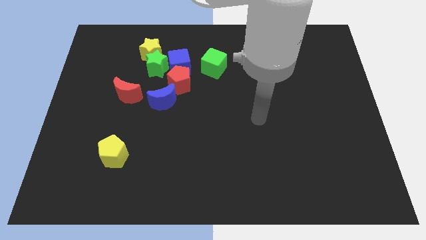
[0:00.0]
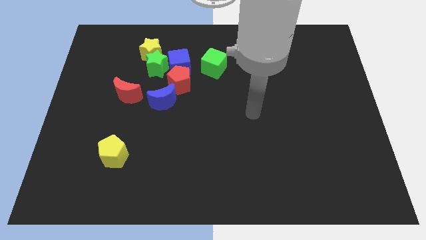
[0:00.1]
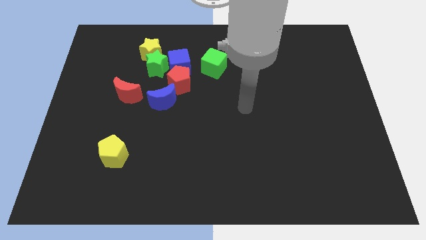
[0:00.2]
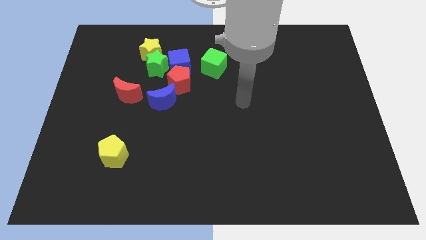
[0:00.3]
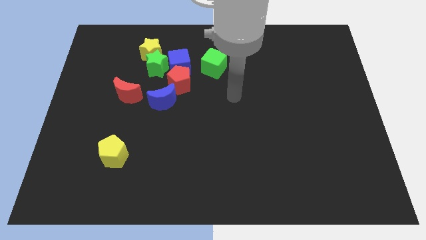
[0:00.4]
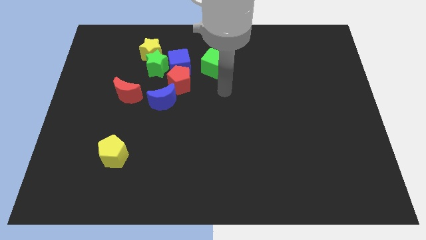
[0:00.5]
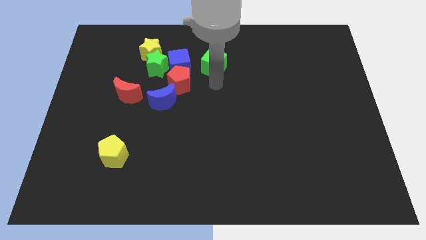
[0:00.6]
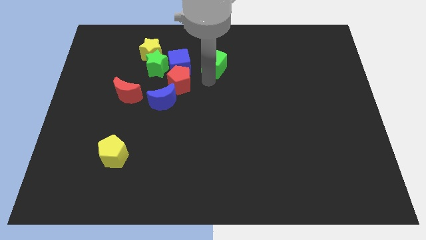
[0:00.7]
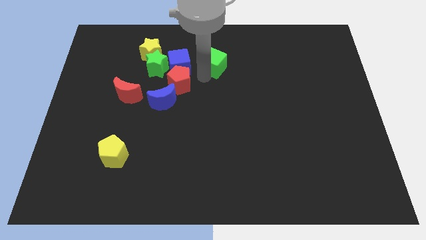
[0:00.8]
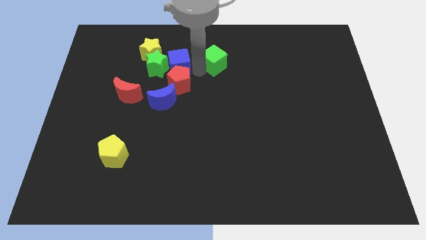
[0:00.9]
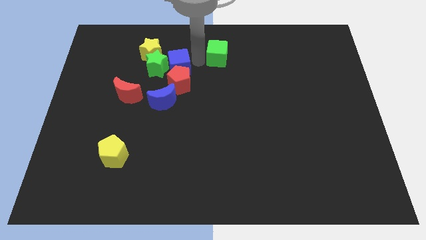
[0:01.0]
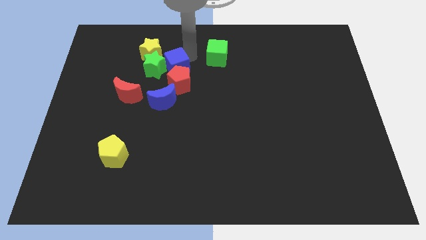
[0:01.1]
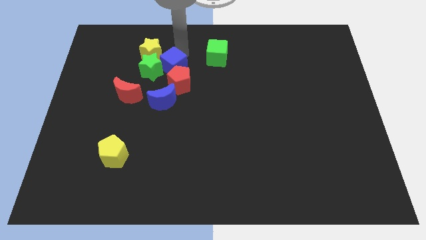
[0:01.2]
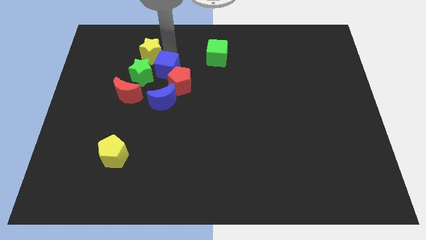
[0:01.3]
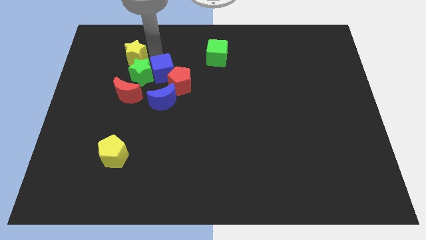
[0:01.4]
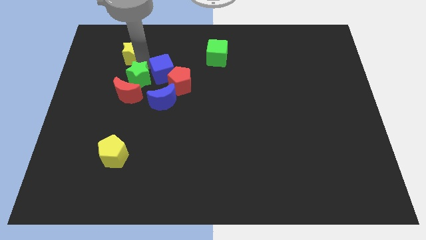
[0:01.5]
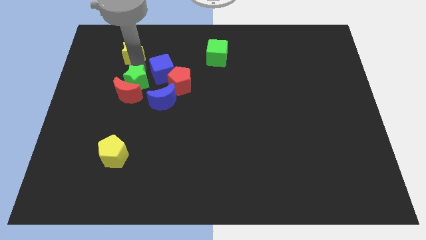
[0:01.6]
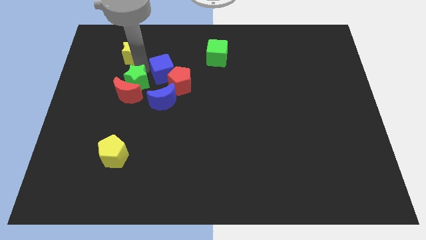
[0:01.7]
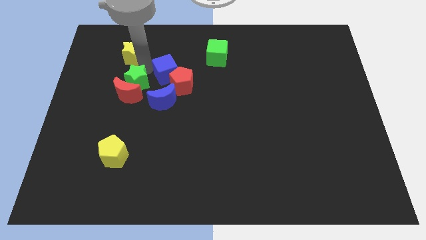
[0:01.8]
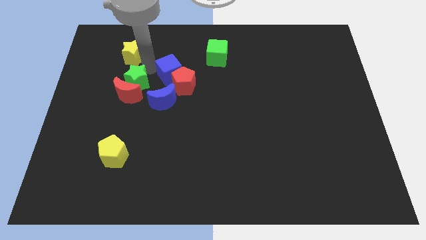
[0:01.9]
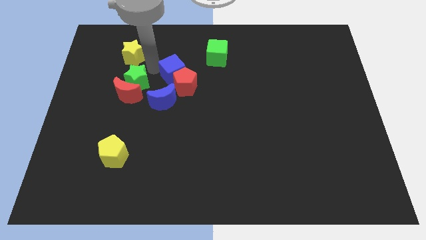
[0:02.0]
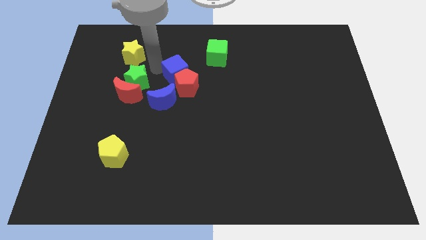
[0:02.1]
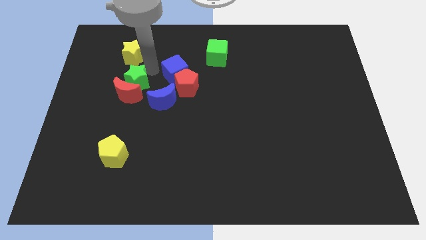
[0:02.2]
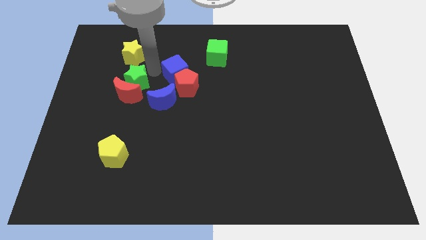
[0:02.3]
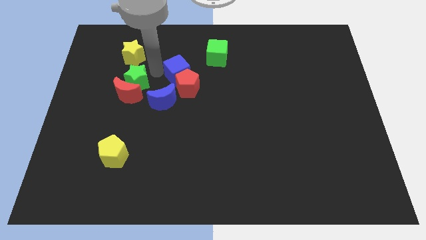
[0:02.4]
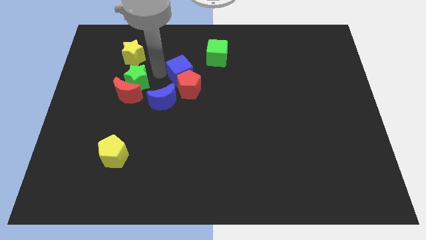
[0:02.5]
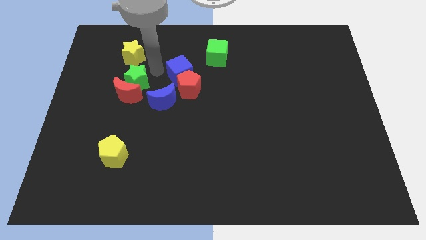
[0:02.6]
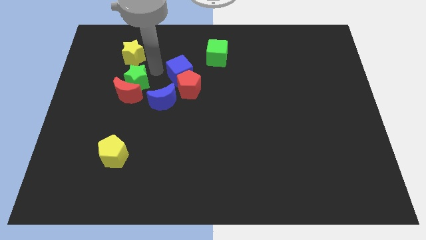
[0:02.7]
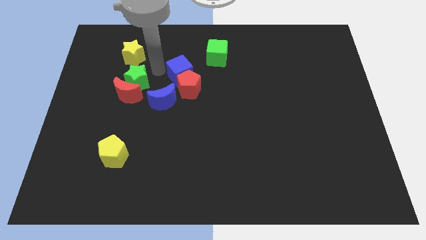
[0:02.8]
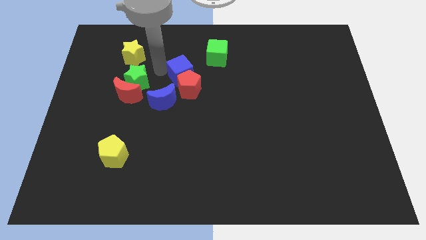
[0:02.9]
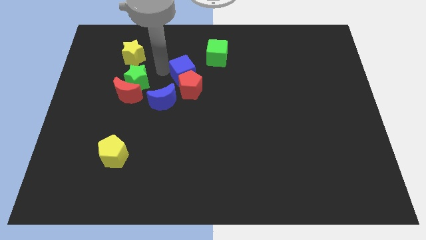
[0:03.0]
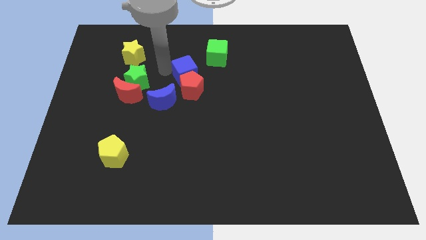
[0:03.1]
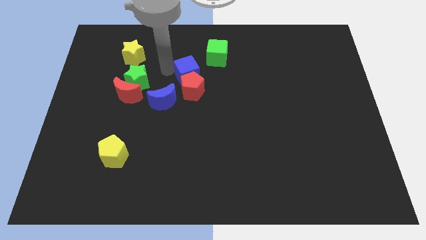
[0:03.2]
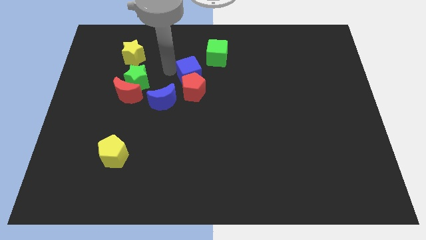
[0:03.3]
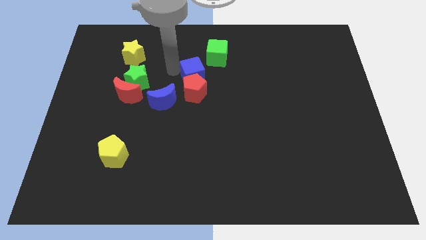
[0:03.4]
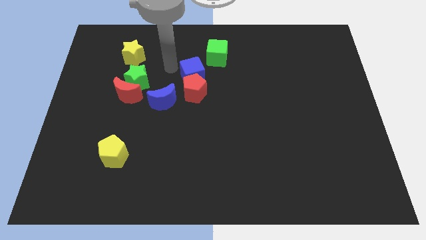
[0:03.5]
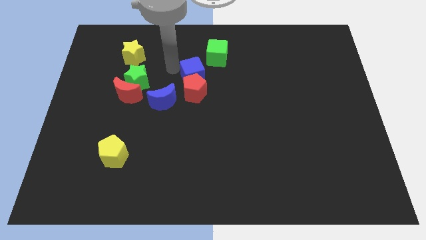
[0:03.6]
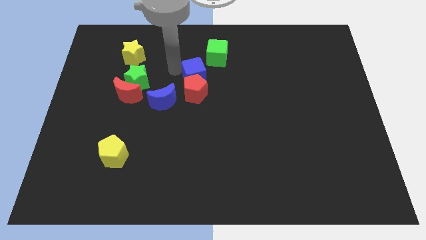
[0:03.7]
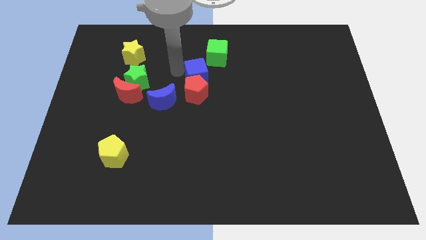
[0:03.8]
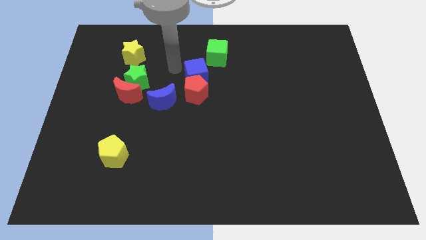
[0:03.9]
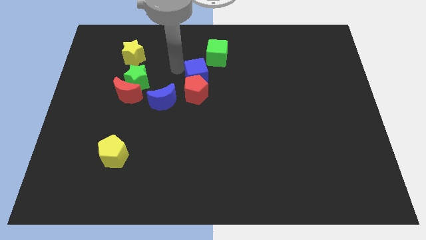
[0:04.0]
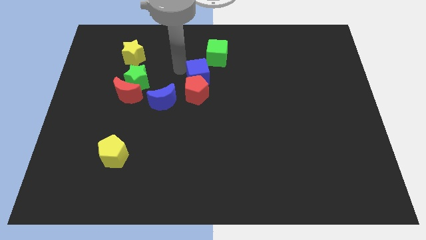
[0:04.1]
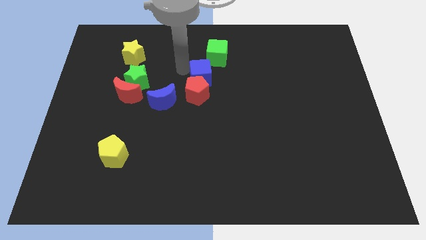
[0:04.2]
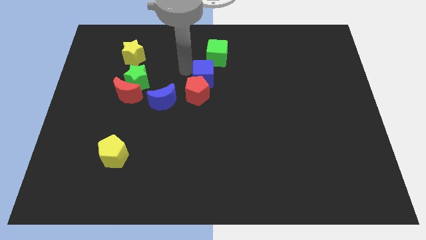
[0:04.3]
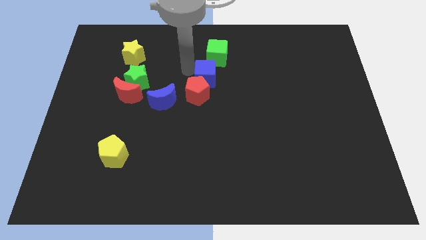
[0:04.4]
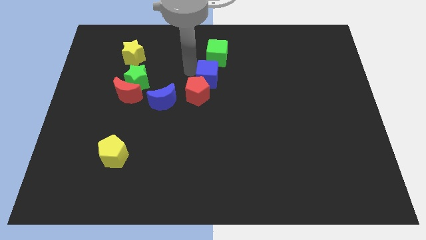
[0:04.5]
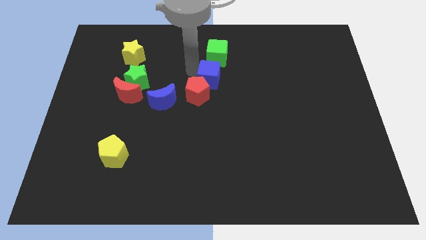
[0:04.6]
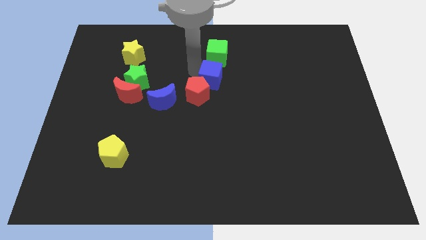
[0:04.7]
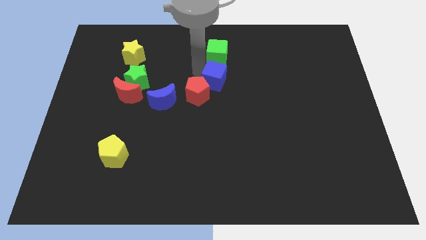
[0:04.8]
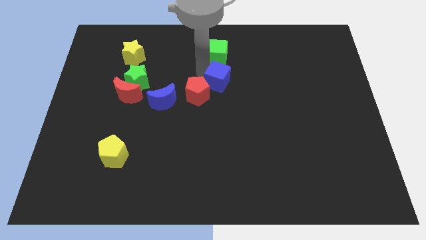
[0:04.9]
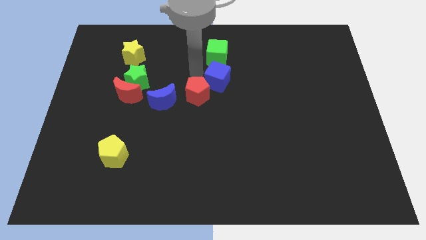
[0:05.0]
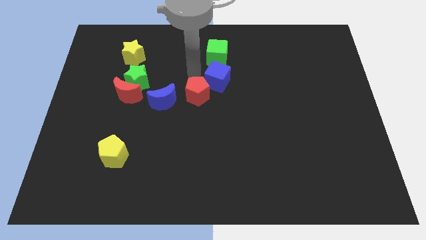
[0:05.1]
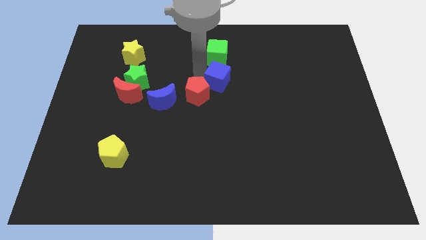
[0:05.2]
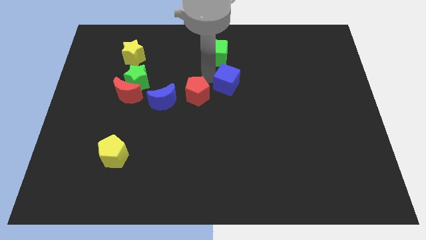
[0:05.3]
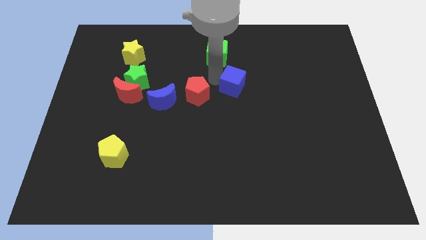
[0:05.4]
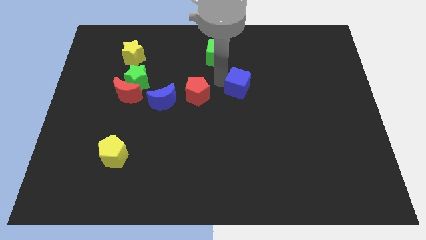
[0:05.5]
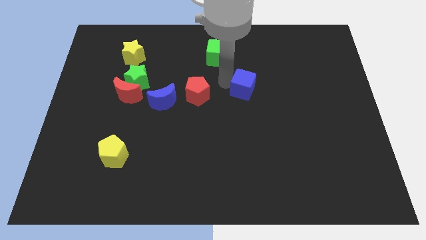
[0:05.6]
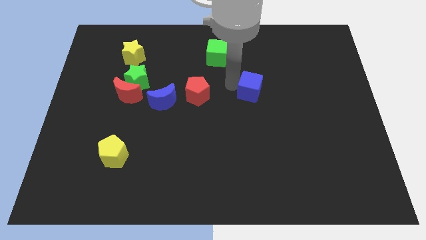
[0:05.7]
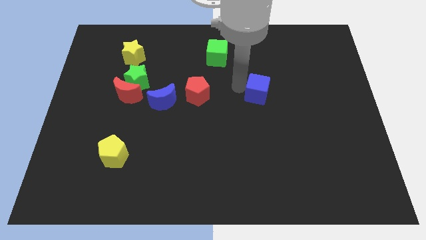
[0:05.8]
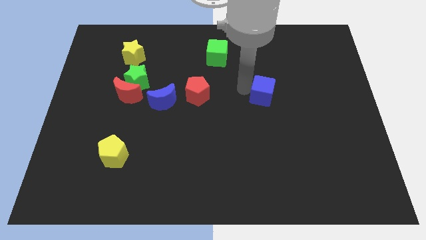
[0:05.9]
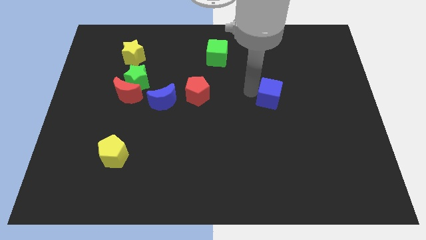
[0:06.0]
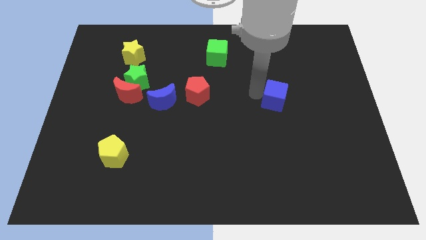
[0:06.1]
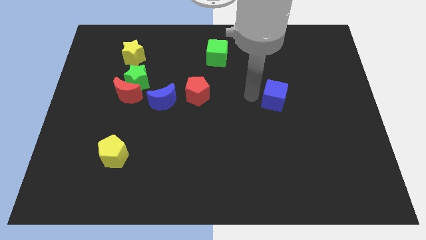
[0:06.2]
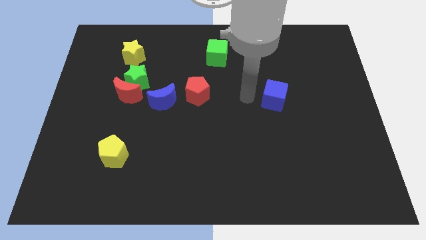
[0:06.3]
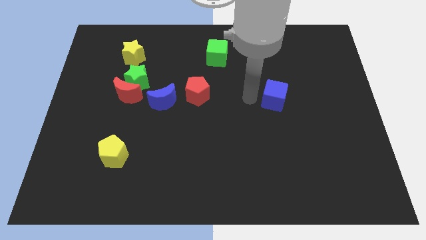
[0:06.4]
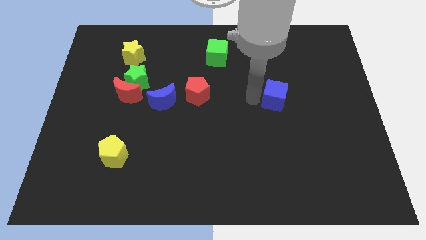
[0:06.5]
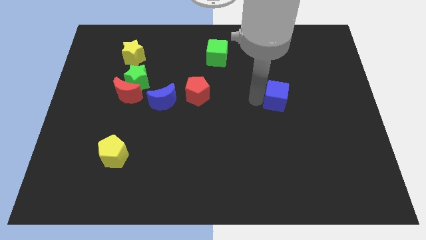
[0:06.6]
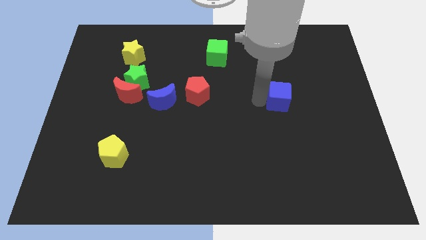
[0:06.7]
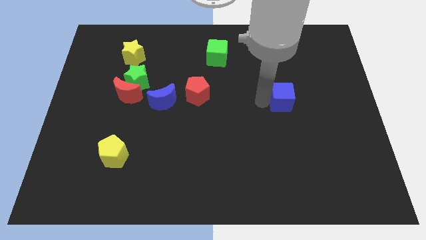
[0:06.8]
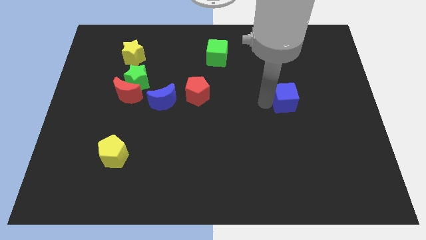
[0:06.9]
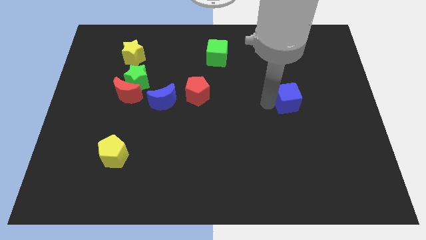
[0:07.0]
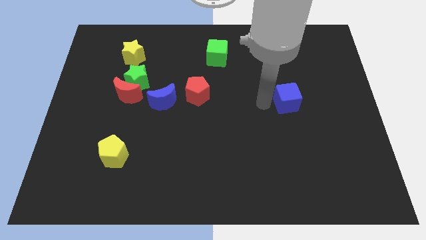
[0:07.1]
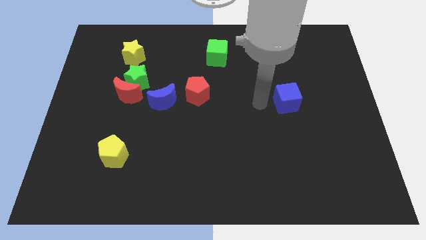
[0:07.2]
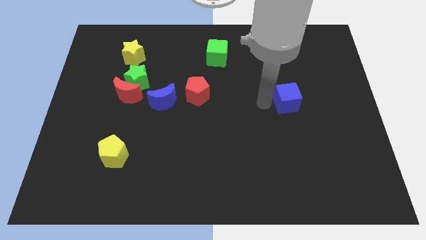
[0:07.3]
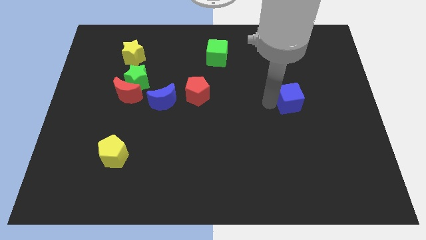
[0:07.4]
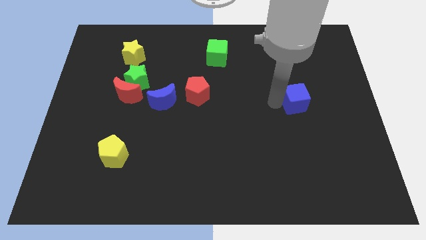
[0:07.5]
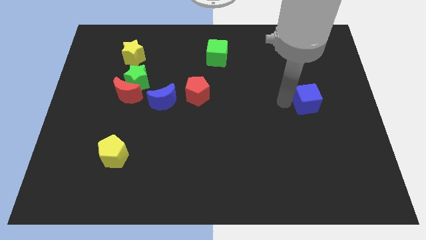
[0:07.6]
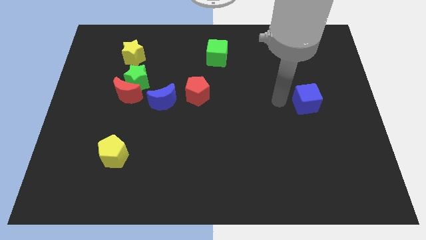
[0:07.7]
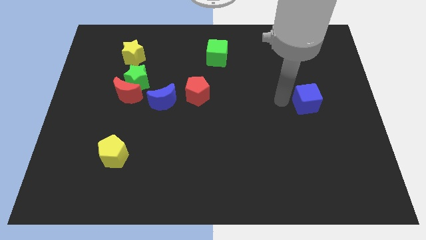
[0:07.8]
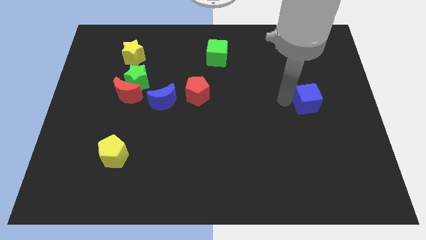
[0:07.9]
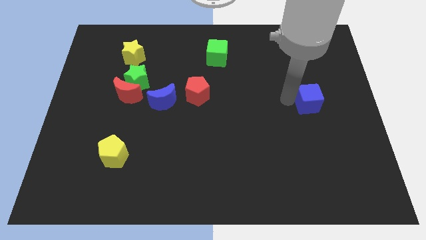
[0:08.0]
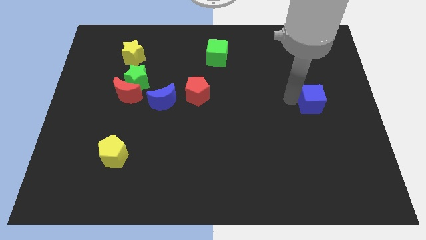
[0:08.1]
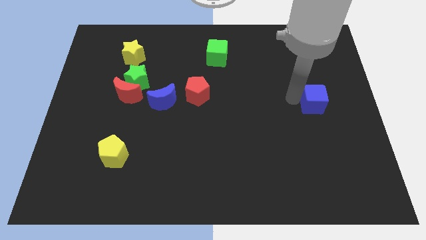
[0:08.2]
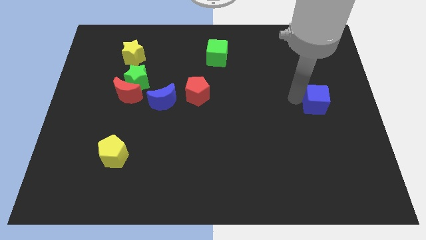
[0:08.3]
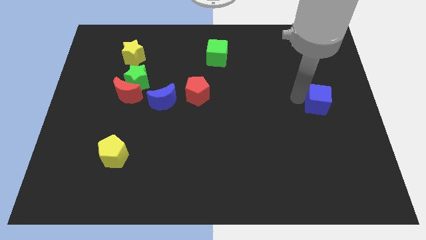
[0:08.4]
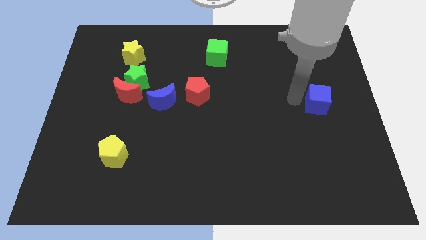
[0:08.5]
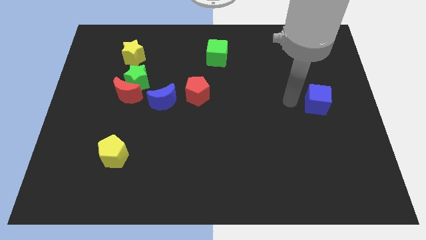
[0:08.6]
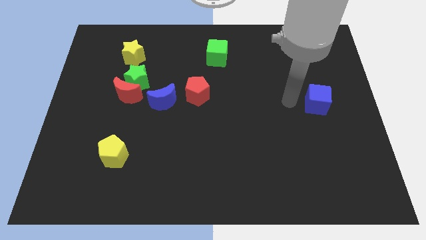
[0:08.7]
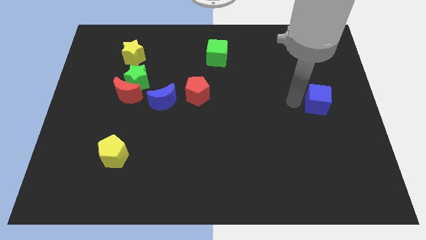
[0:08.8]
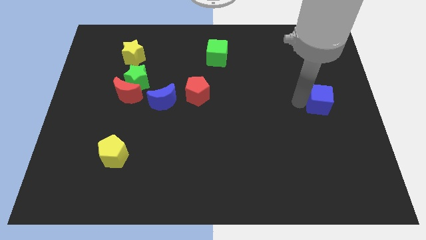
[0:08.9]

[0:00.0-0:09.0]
slide the blue cube to the center right
